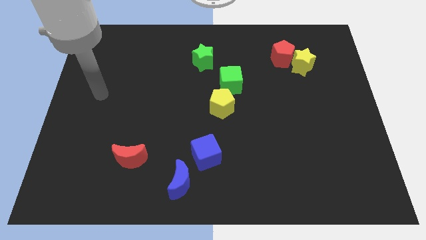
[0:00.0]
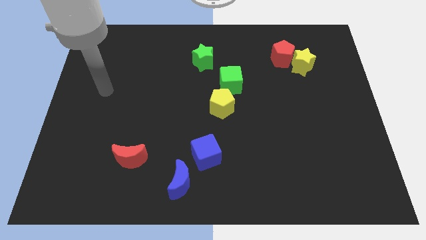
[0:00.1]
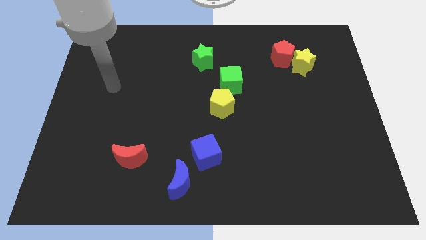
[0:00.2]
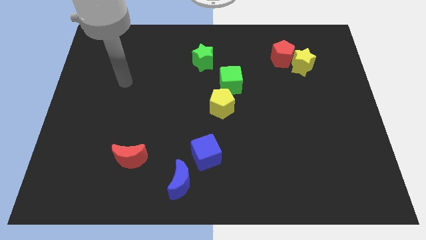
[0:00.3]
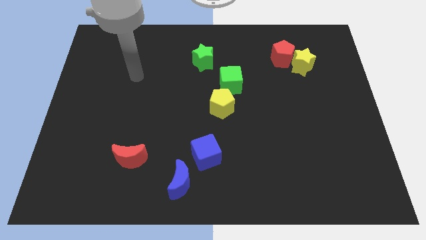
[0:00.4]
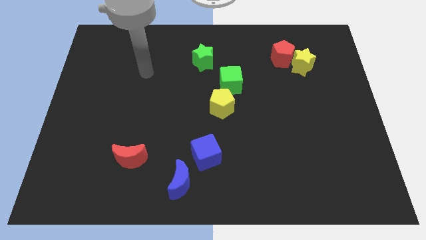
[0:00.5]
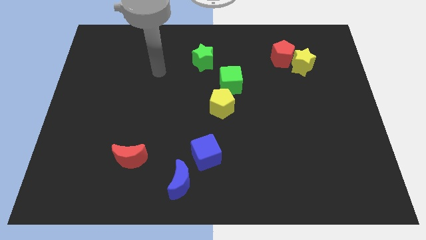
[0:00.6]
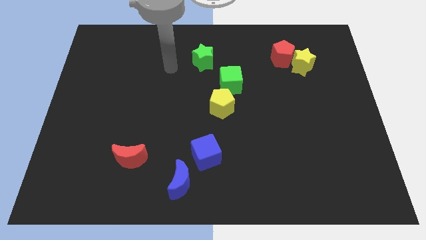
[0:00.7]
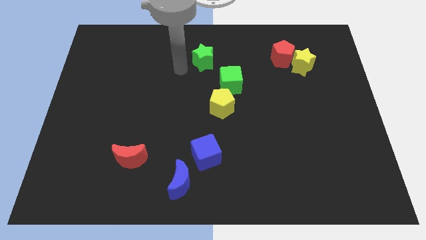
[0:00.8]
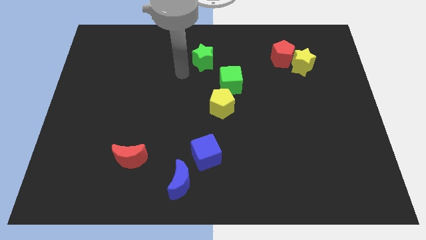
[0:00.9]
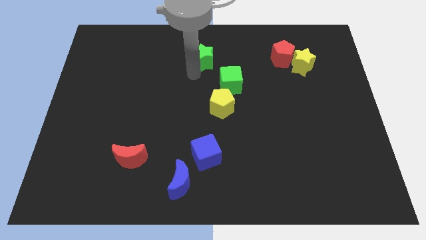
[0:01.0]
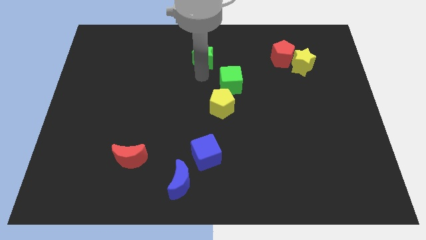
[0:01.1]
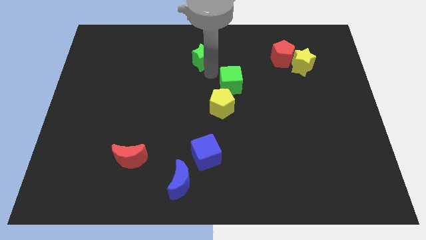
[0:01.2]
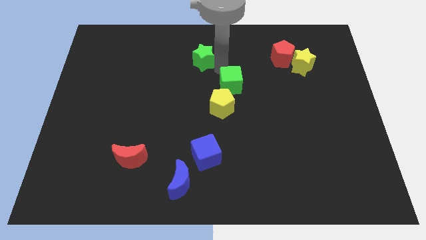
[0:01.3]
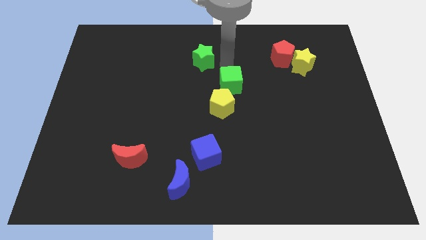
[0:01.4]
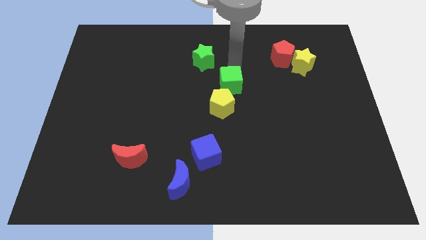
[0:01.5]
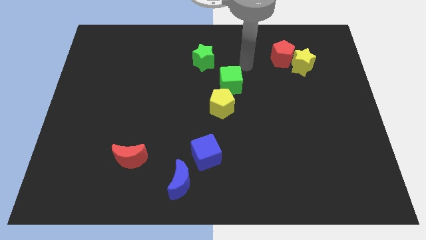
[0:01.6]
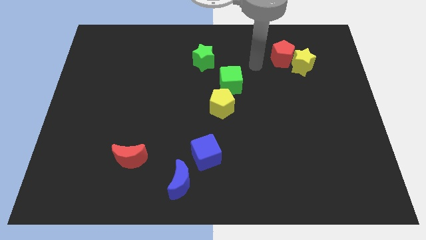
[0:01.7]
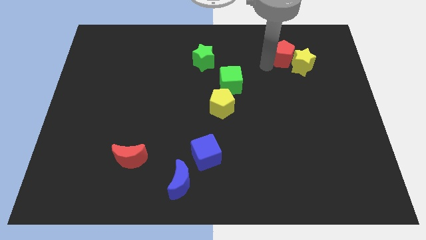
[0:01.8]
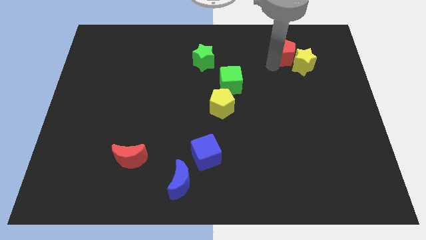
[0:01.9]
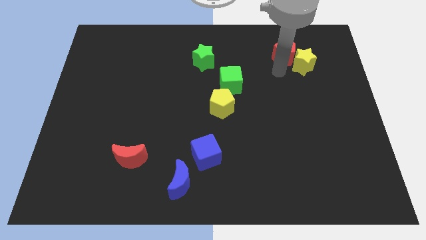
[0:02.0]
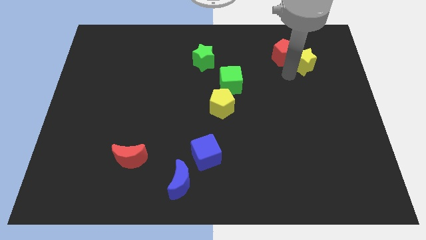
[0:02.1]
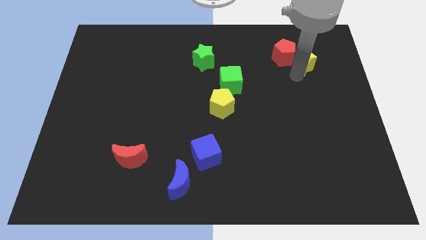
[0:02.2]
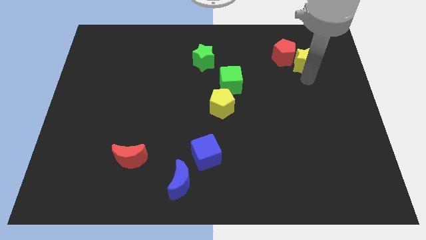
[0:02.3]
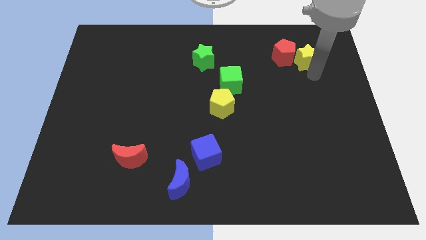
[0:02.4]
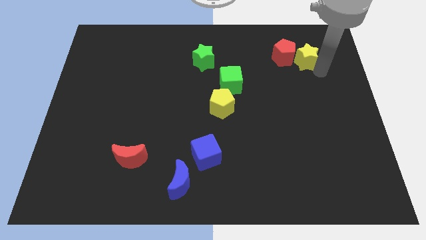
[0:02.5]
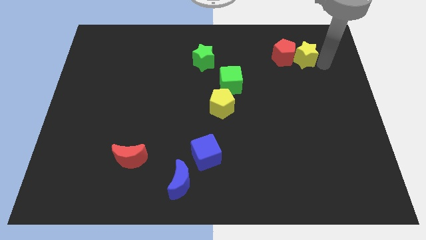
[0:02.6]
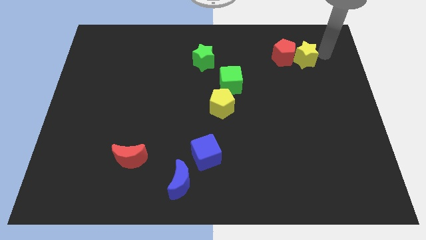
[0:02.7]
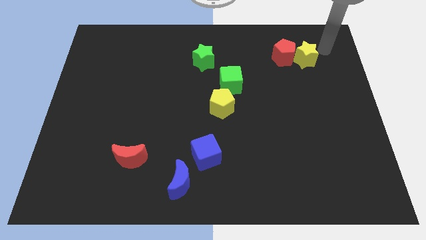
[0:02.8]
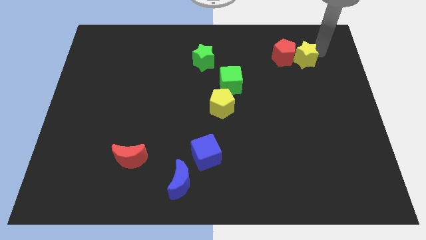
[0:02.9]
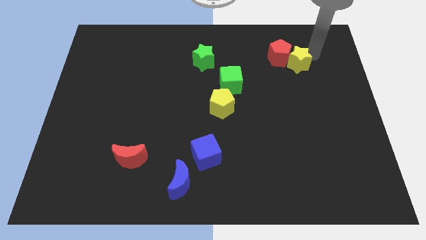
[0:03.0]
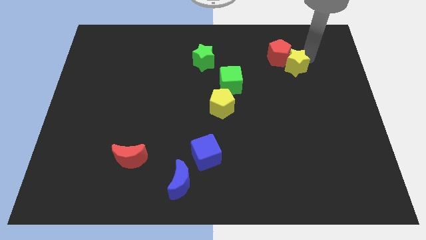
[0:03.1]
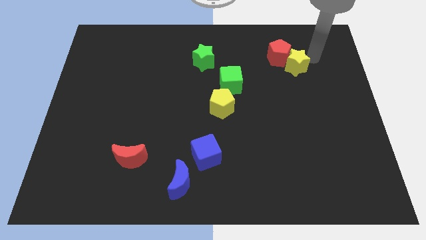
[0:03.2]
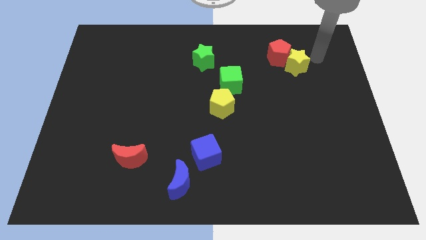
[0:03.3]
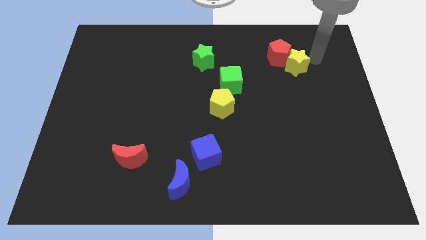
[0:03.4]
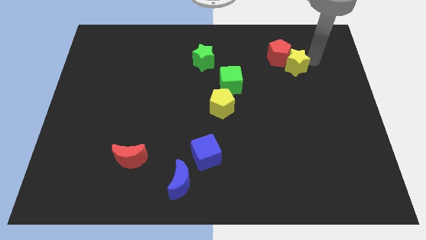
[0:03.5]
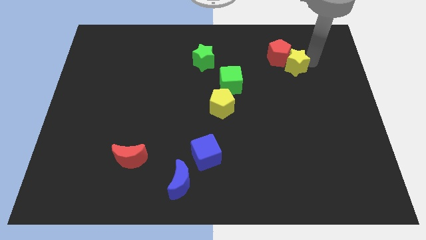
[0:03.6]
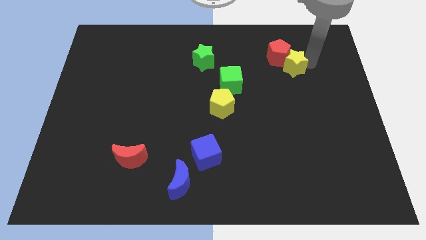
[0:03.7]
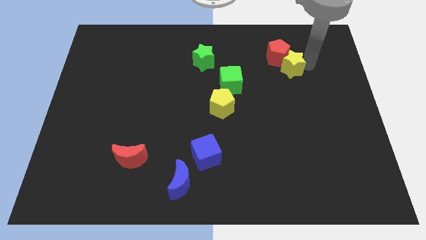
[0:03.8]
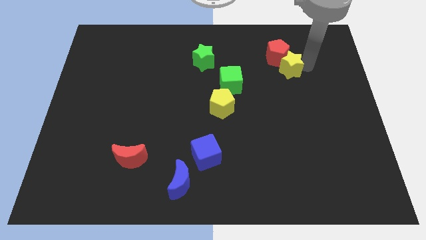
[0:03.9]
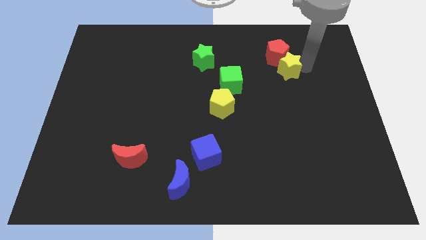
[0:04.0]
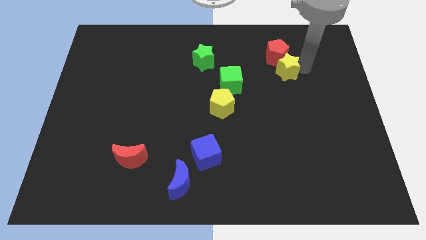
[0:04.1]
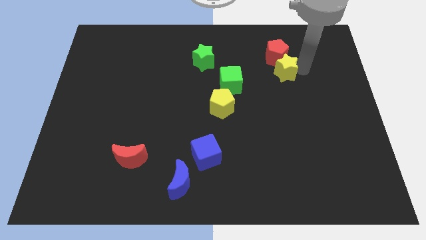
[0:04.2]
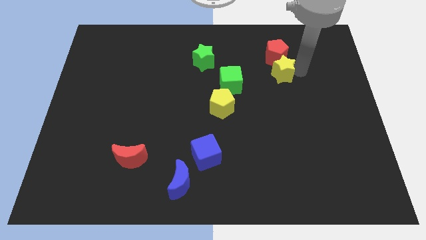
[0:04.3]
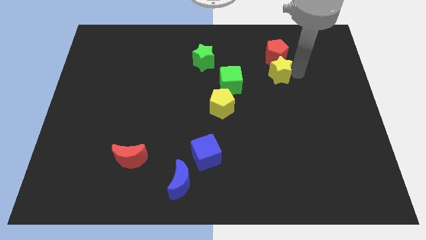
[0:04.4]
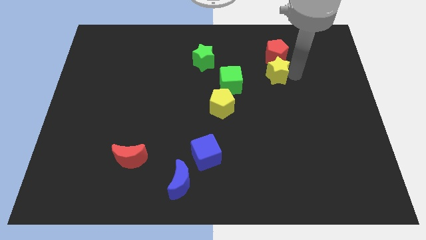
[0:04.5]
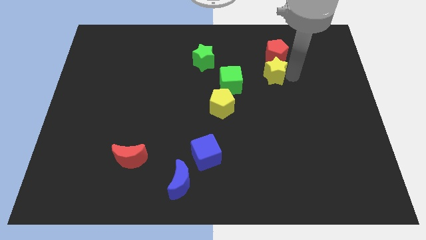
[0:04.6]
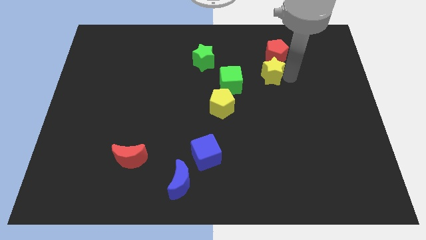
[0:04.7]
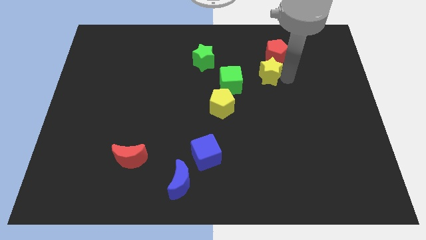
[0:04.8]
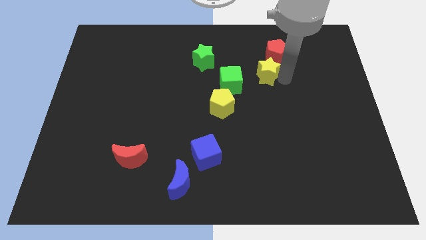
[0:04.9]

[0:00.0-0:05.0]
slide the yellow star to the top right of the green cube

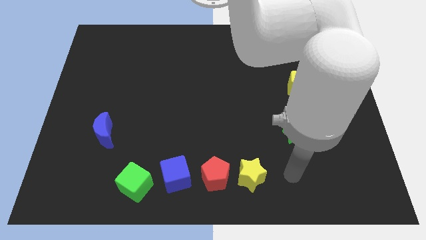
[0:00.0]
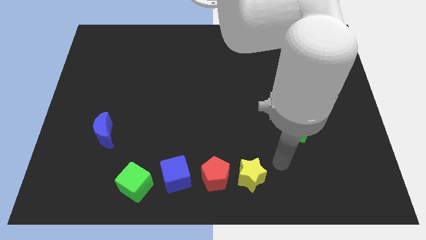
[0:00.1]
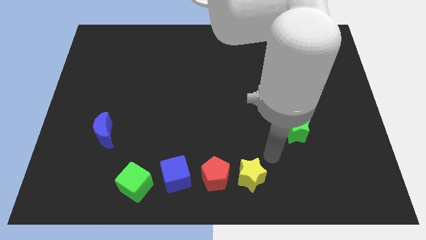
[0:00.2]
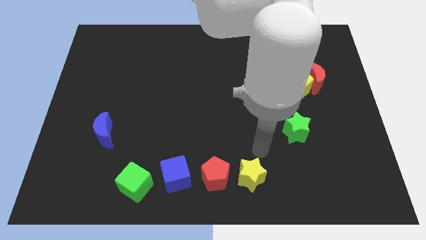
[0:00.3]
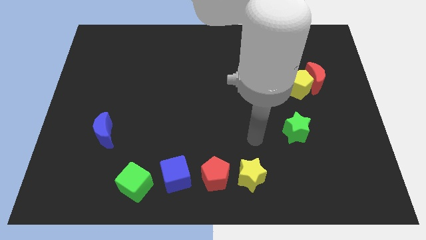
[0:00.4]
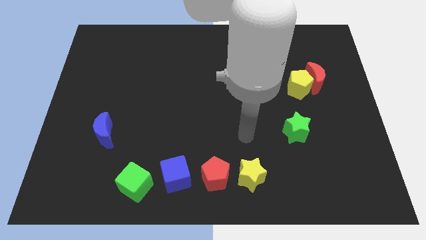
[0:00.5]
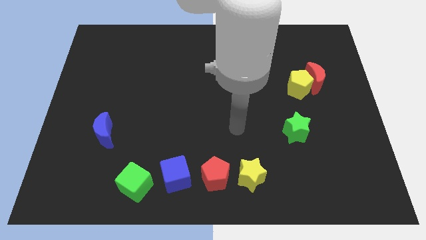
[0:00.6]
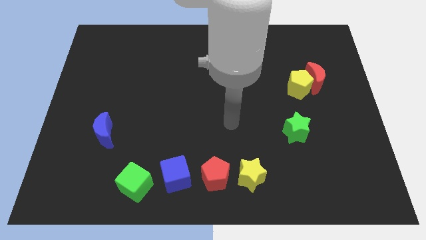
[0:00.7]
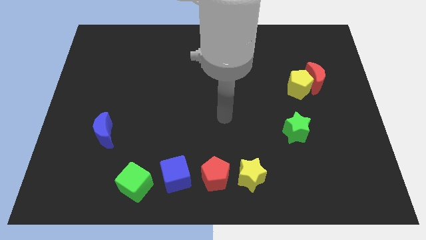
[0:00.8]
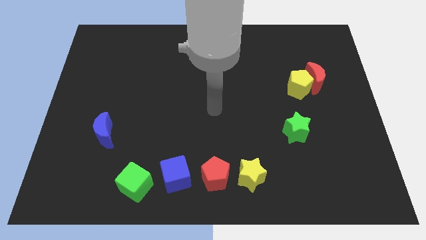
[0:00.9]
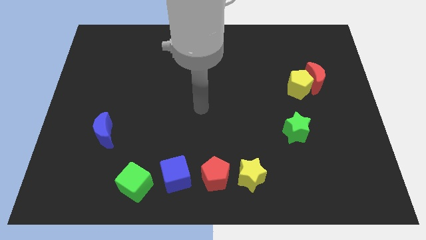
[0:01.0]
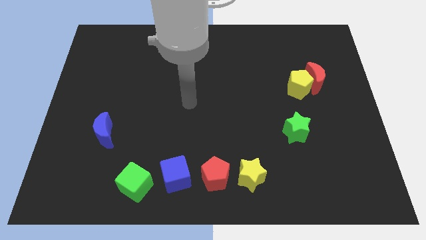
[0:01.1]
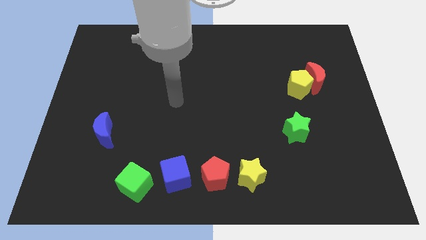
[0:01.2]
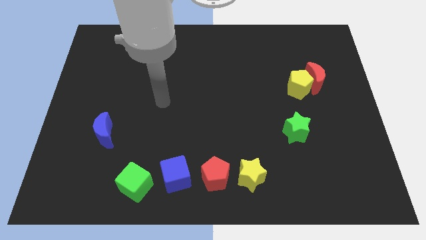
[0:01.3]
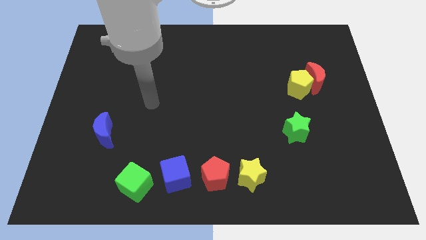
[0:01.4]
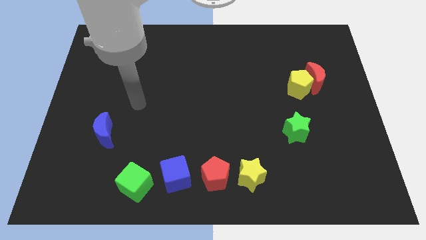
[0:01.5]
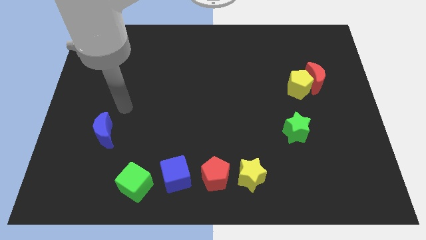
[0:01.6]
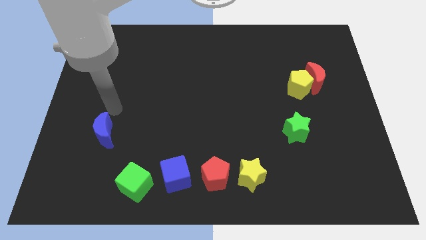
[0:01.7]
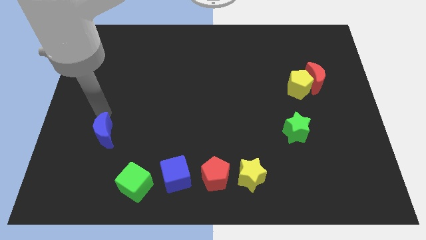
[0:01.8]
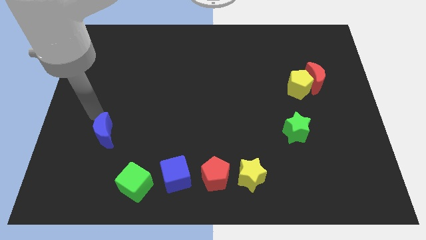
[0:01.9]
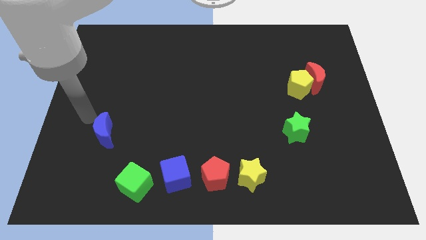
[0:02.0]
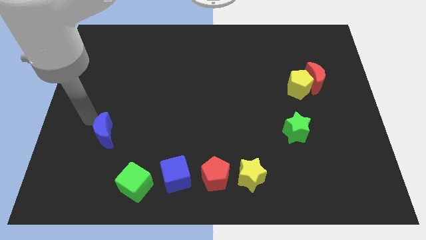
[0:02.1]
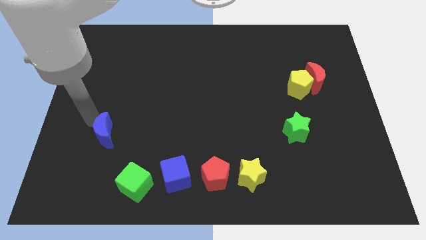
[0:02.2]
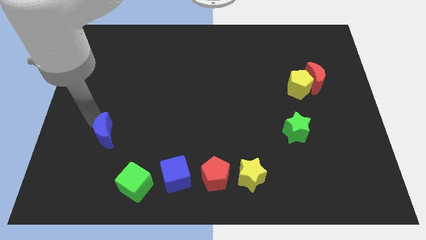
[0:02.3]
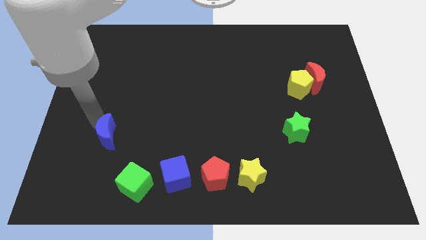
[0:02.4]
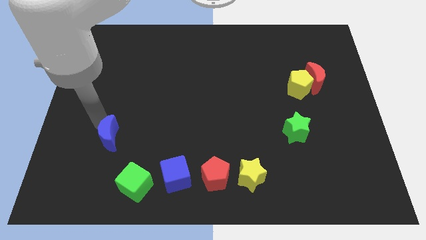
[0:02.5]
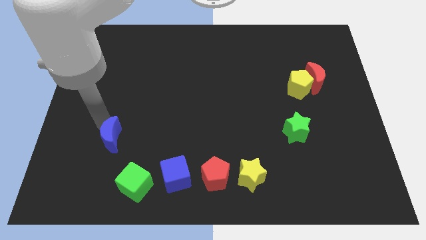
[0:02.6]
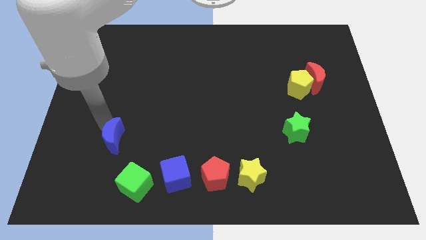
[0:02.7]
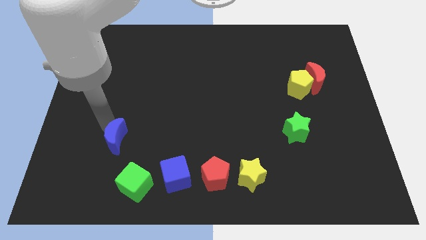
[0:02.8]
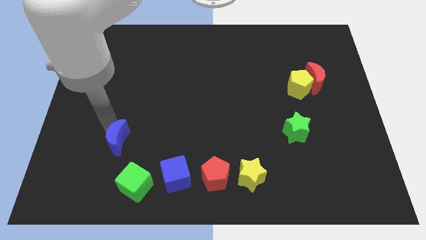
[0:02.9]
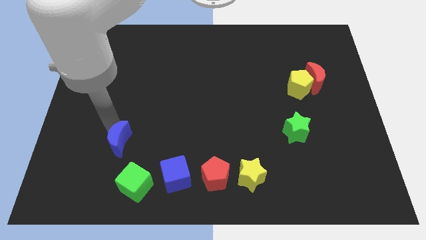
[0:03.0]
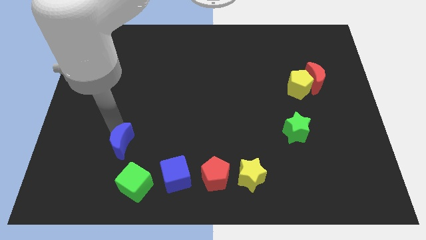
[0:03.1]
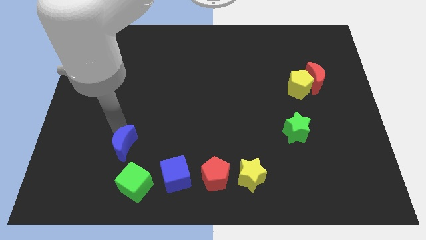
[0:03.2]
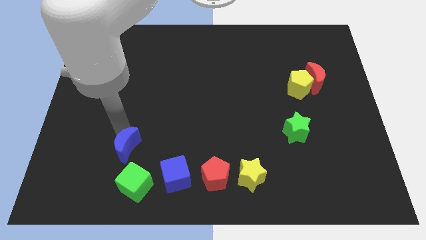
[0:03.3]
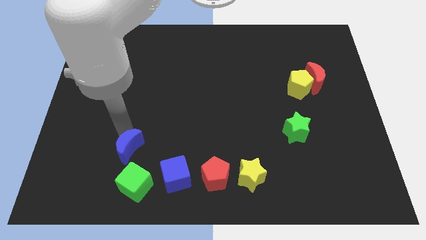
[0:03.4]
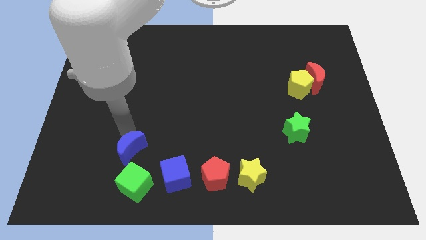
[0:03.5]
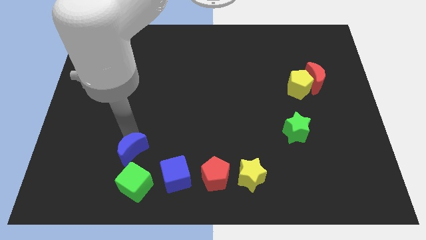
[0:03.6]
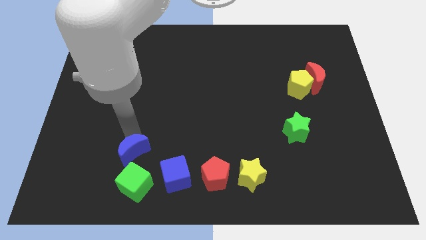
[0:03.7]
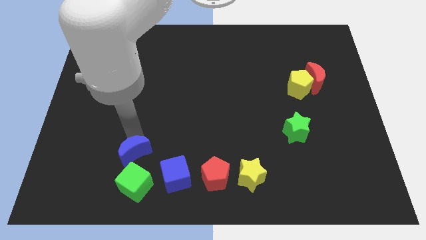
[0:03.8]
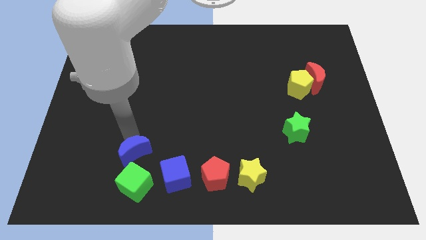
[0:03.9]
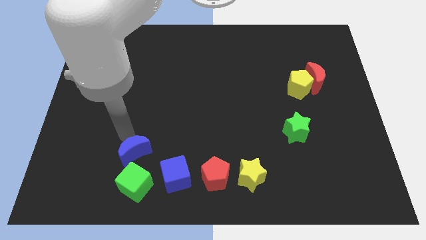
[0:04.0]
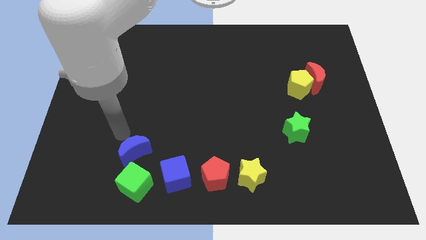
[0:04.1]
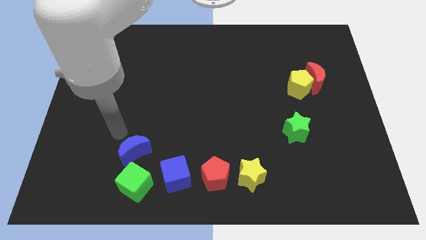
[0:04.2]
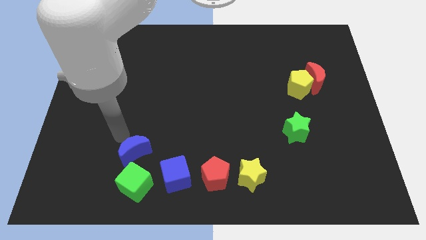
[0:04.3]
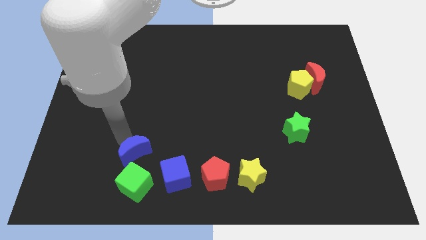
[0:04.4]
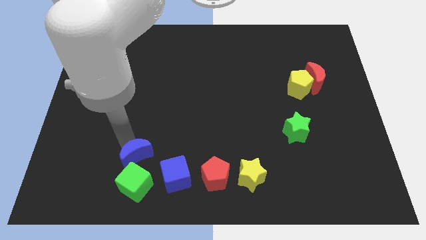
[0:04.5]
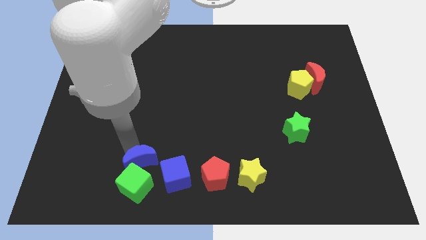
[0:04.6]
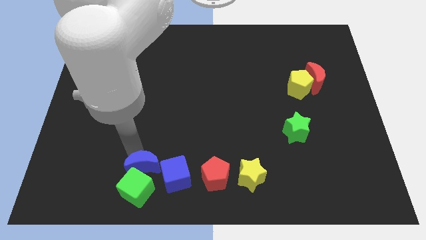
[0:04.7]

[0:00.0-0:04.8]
move the blue moon to the left side of the red pentagon
